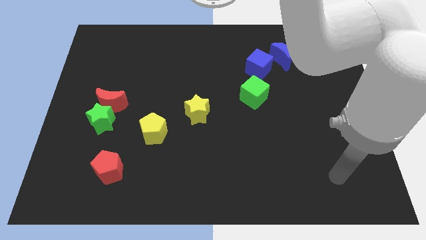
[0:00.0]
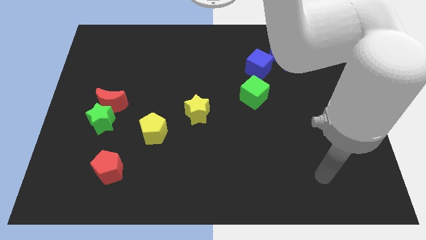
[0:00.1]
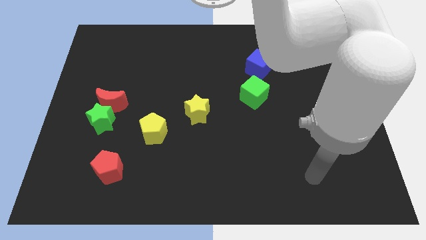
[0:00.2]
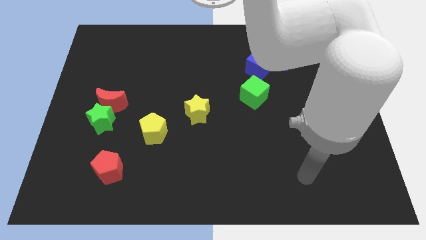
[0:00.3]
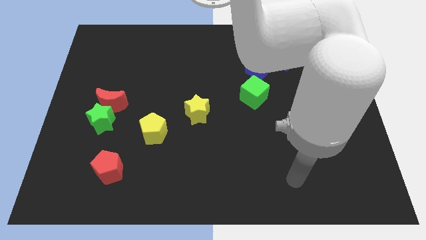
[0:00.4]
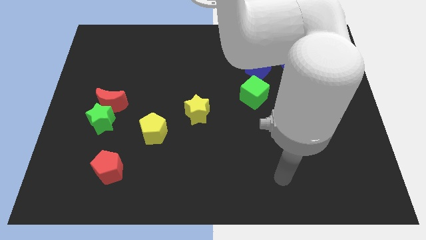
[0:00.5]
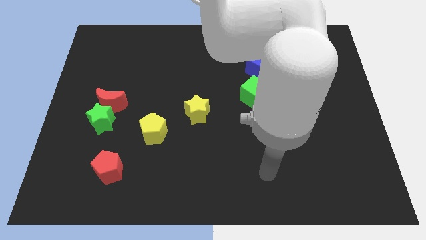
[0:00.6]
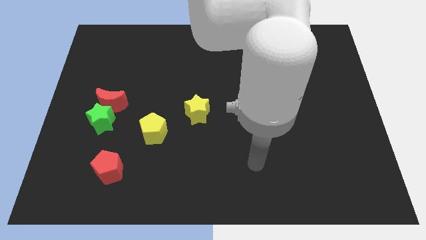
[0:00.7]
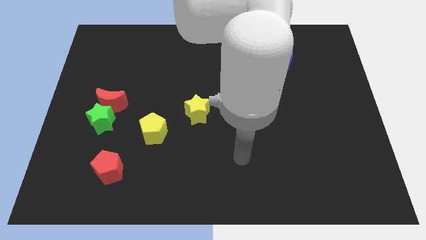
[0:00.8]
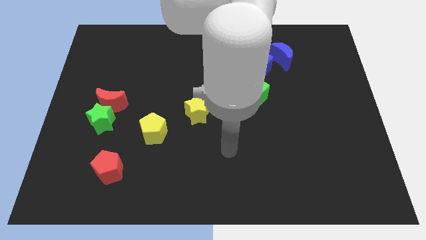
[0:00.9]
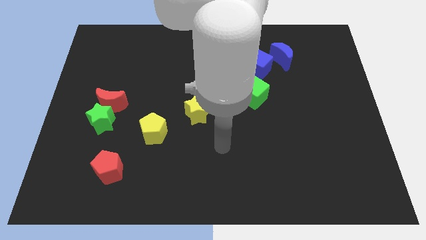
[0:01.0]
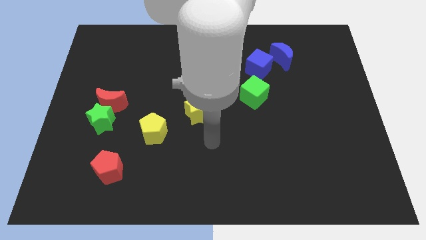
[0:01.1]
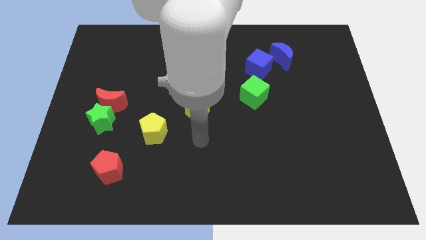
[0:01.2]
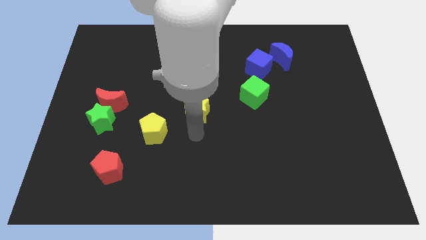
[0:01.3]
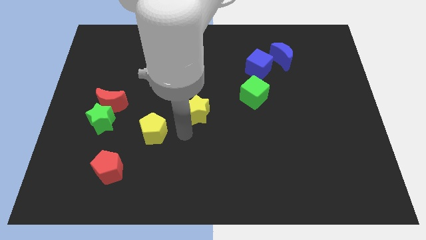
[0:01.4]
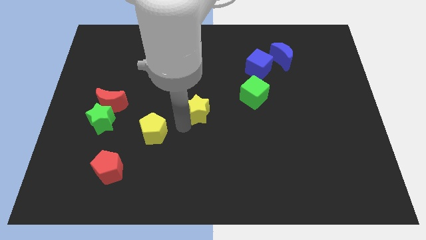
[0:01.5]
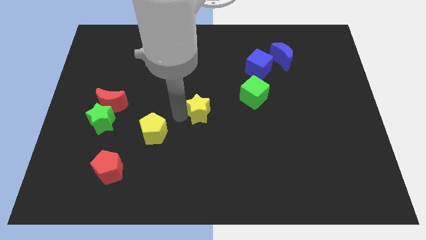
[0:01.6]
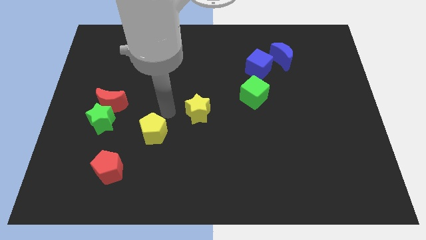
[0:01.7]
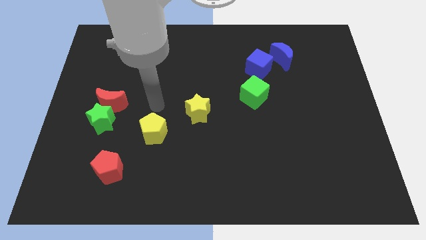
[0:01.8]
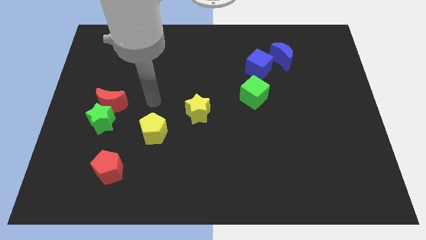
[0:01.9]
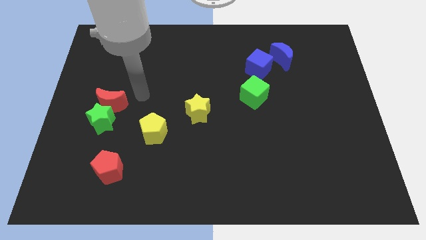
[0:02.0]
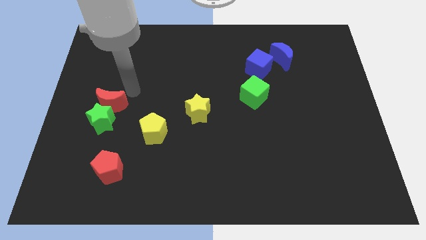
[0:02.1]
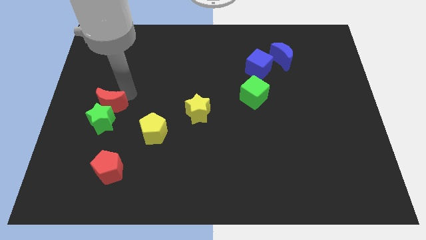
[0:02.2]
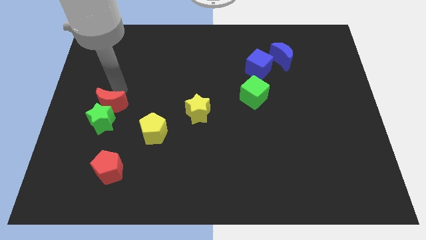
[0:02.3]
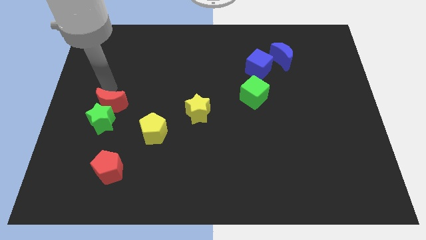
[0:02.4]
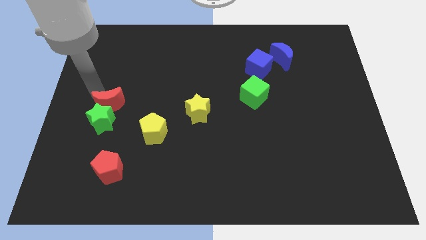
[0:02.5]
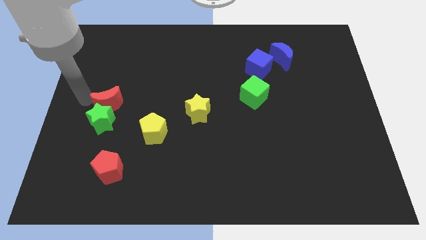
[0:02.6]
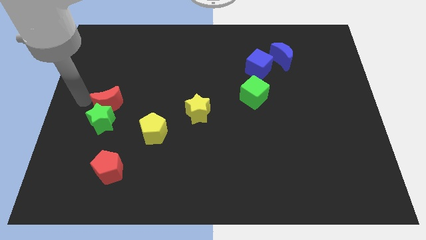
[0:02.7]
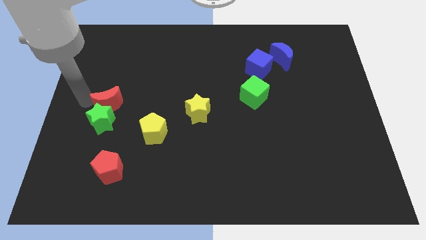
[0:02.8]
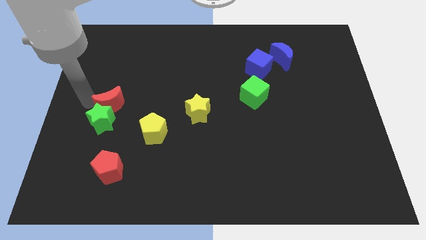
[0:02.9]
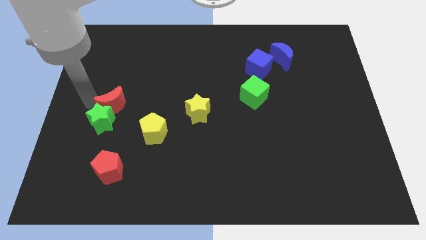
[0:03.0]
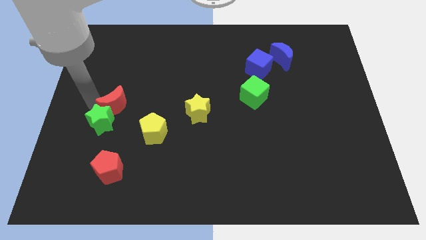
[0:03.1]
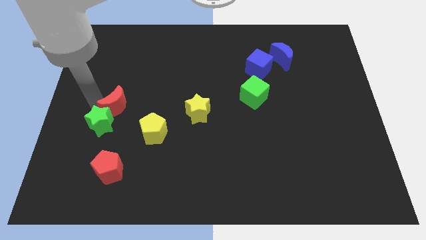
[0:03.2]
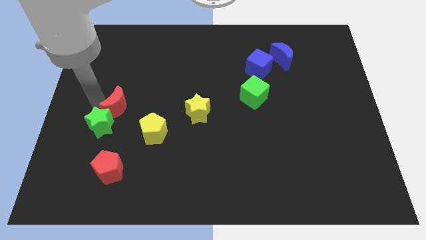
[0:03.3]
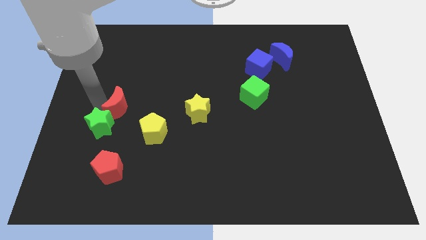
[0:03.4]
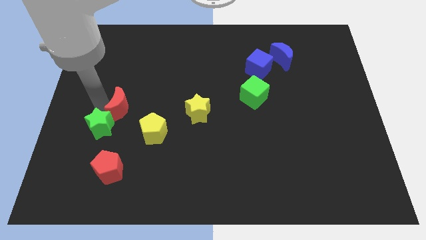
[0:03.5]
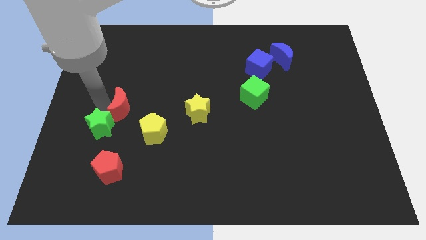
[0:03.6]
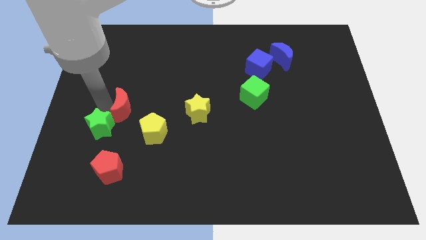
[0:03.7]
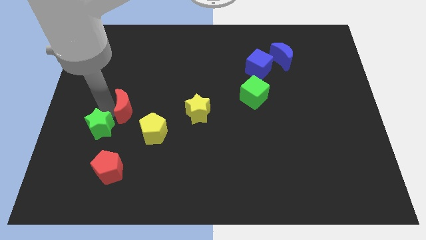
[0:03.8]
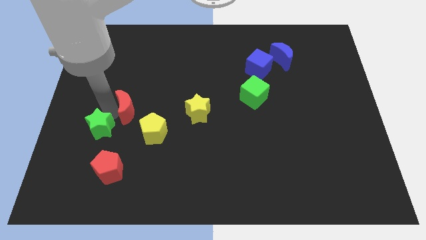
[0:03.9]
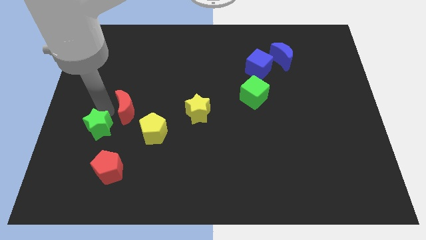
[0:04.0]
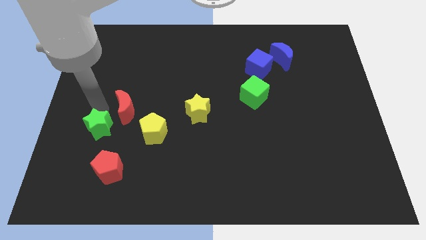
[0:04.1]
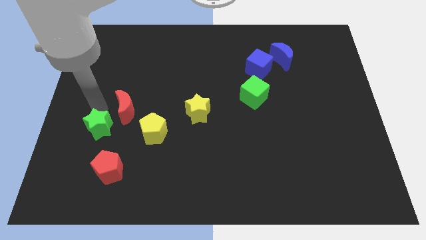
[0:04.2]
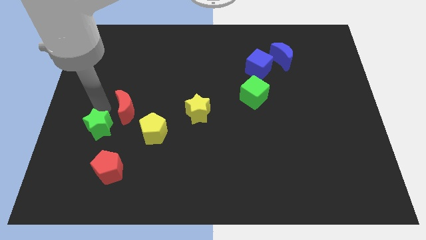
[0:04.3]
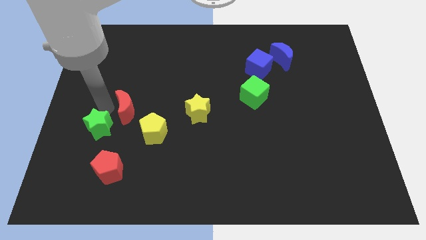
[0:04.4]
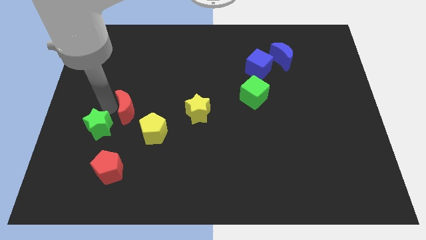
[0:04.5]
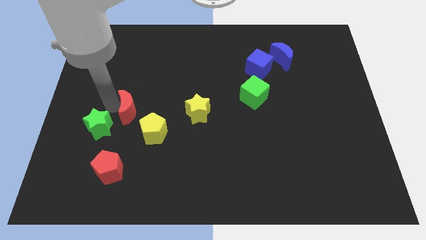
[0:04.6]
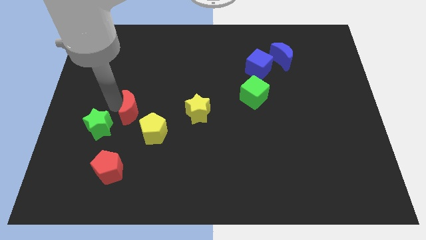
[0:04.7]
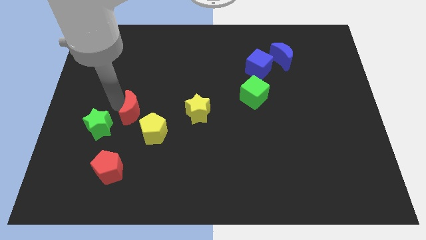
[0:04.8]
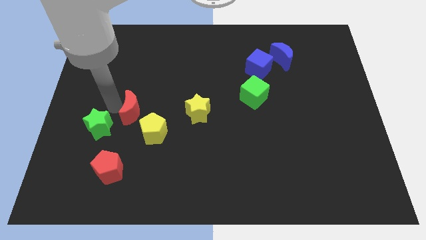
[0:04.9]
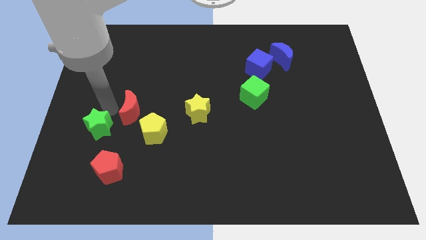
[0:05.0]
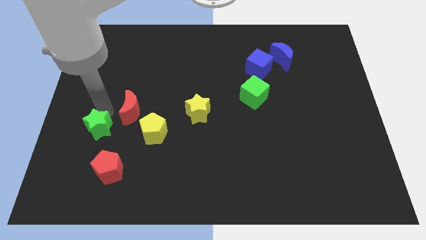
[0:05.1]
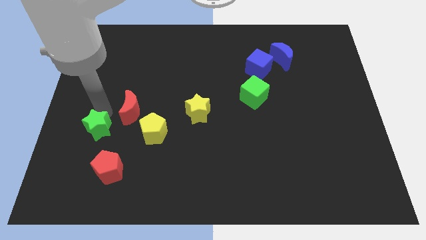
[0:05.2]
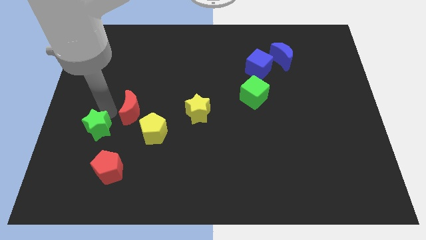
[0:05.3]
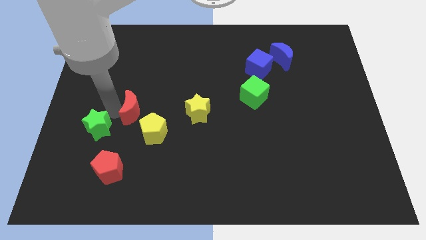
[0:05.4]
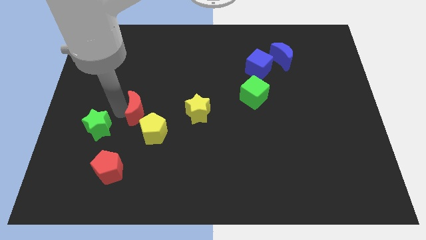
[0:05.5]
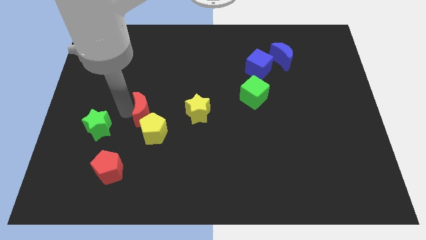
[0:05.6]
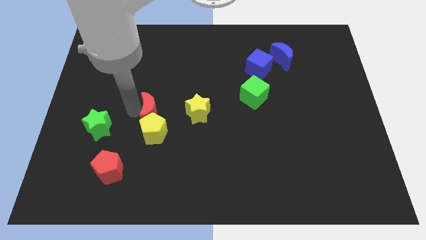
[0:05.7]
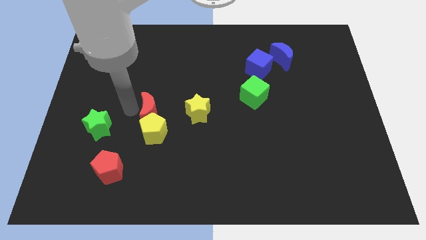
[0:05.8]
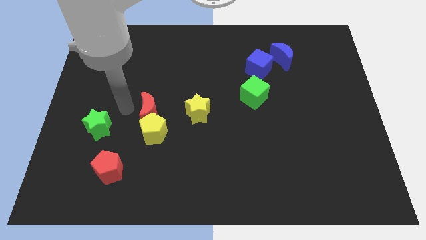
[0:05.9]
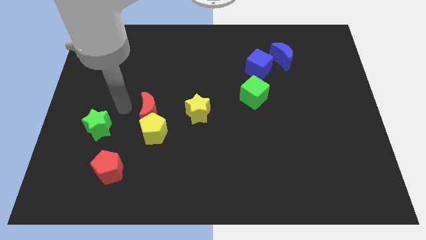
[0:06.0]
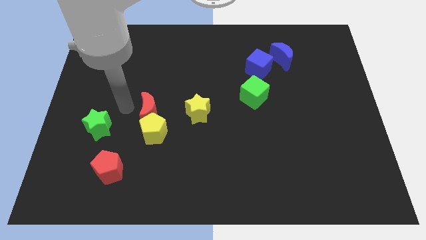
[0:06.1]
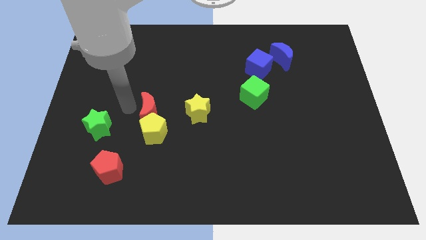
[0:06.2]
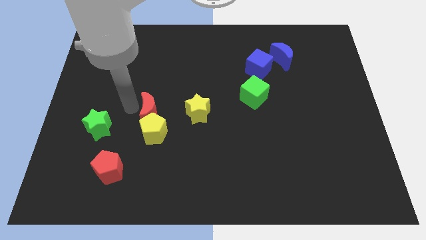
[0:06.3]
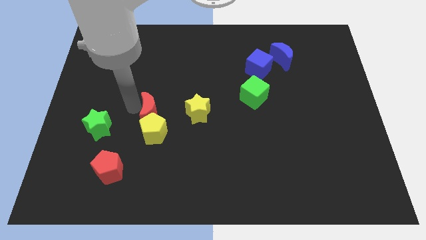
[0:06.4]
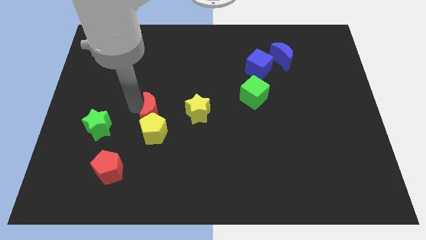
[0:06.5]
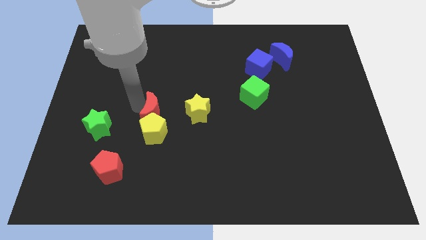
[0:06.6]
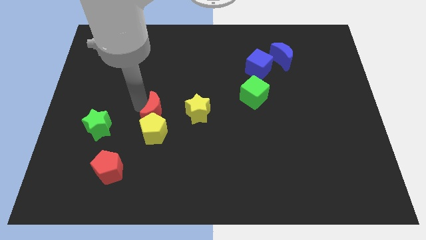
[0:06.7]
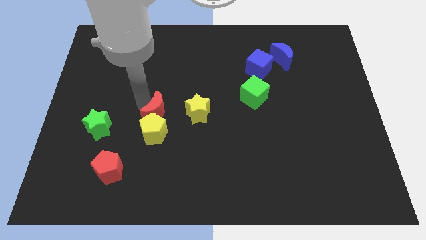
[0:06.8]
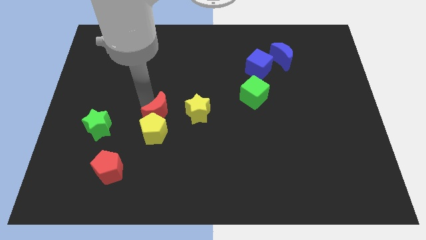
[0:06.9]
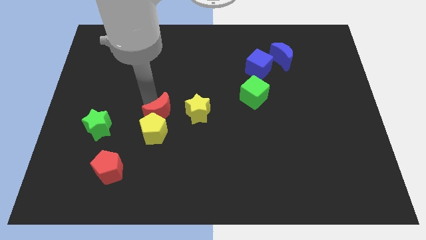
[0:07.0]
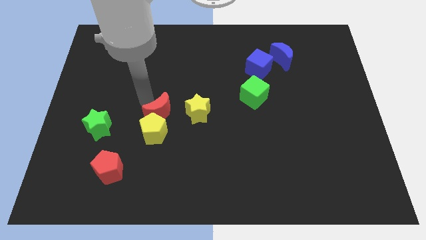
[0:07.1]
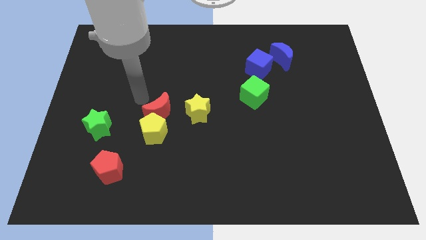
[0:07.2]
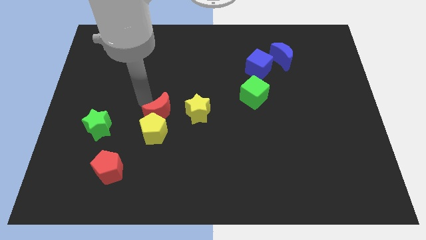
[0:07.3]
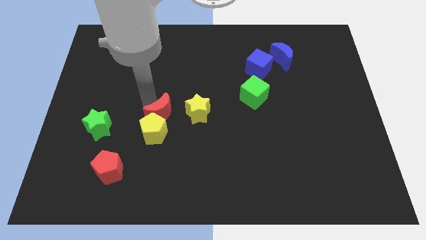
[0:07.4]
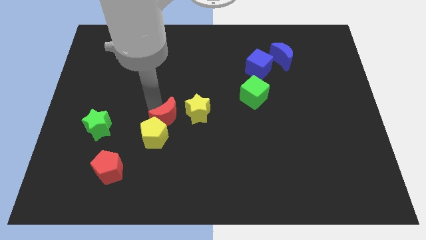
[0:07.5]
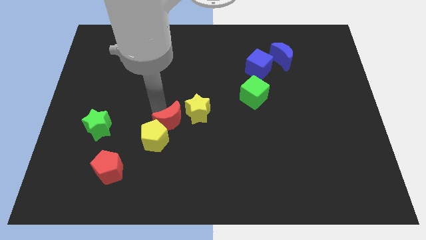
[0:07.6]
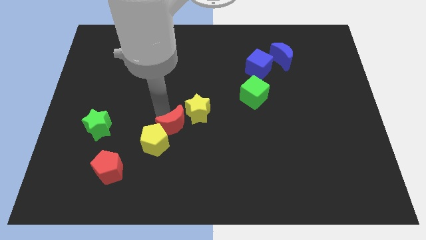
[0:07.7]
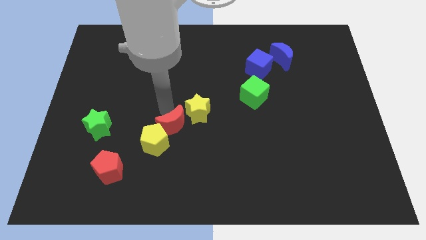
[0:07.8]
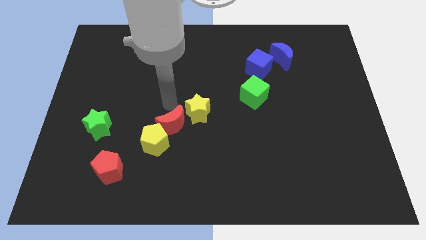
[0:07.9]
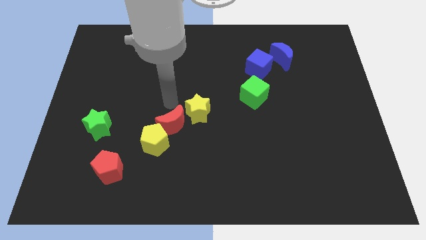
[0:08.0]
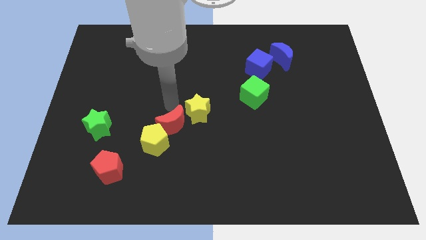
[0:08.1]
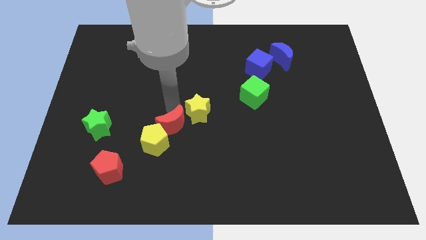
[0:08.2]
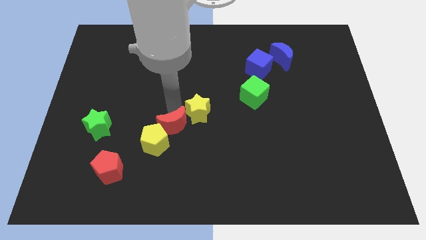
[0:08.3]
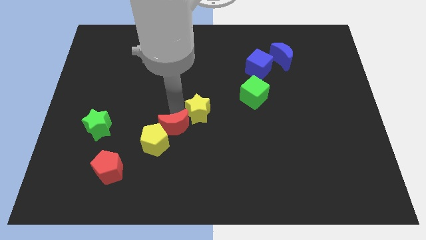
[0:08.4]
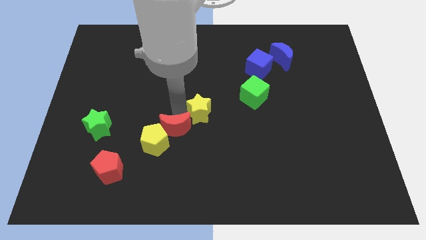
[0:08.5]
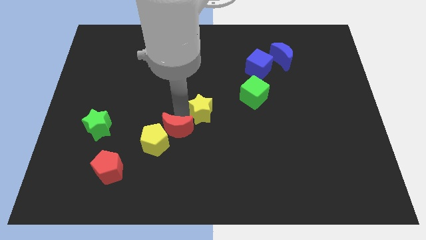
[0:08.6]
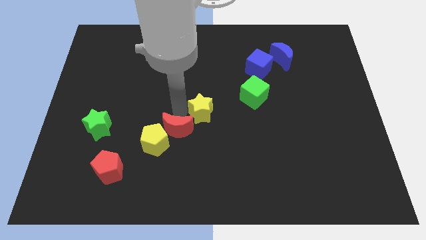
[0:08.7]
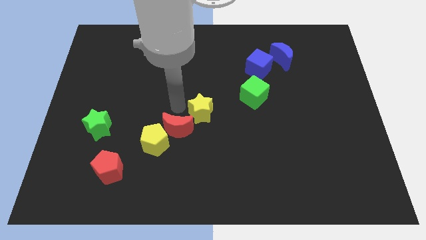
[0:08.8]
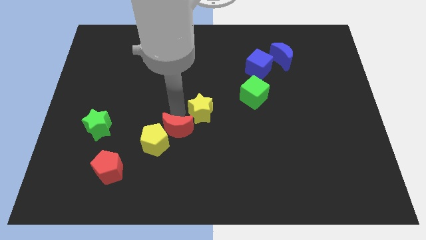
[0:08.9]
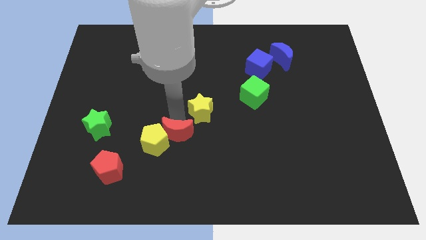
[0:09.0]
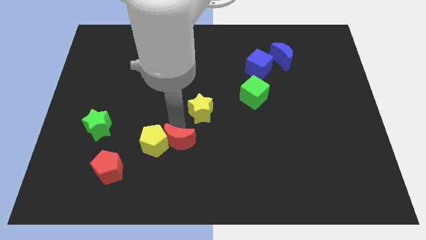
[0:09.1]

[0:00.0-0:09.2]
move the red moon diagonally down and to the right of the yellow pentagon
